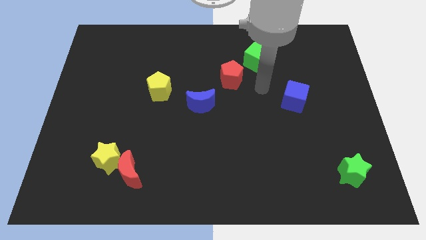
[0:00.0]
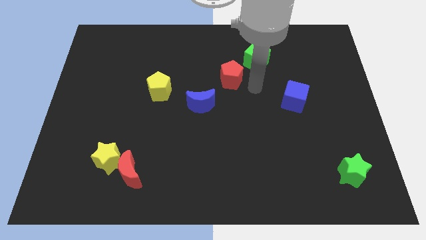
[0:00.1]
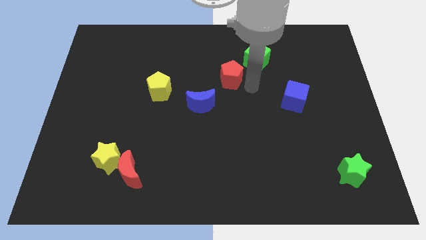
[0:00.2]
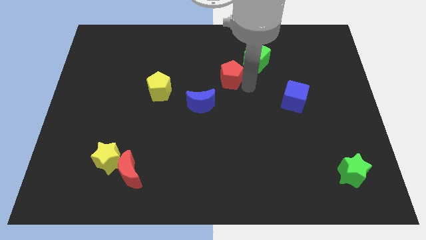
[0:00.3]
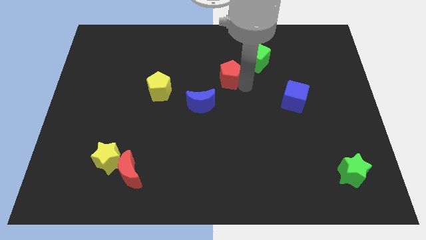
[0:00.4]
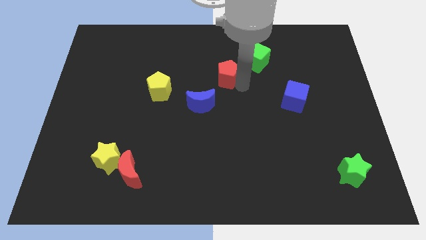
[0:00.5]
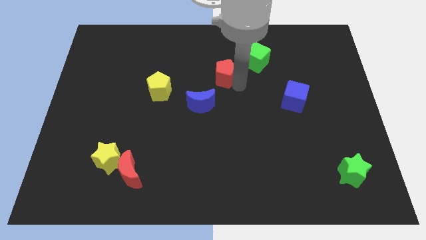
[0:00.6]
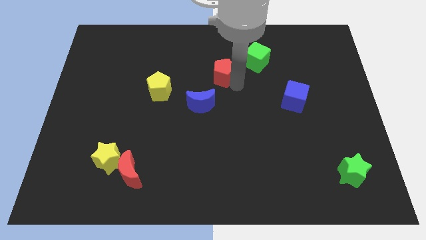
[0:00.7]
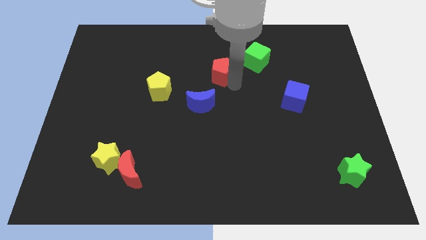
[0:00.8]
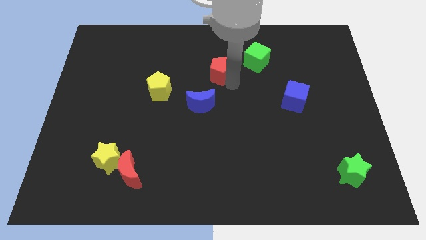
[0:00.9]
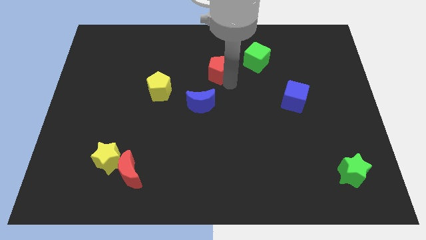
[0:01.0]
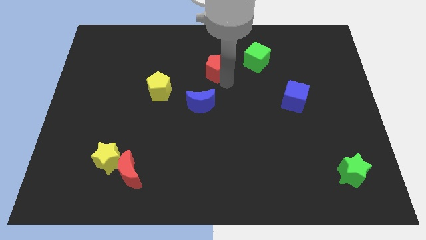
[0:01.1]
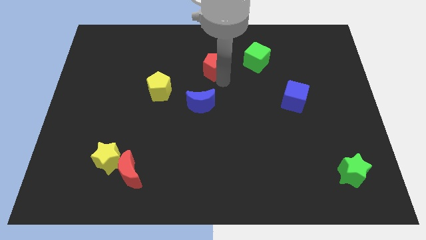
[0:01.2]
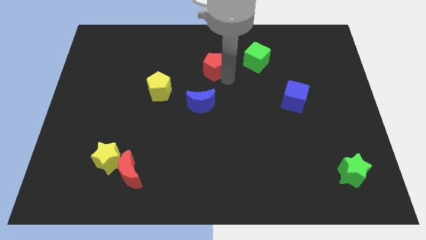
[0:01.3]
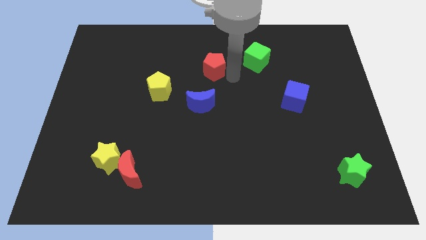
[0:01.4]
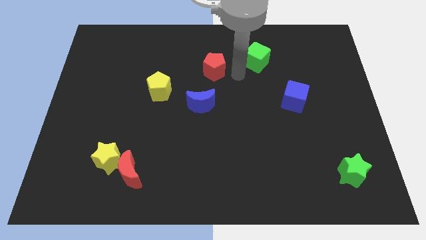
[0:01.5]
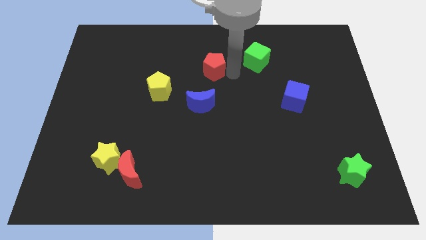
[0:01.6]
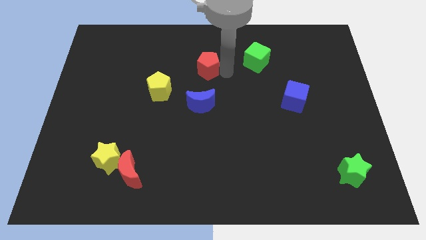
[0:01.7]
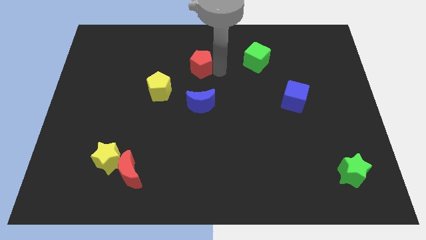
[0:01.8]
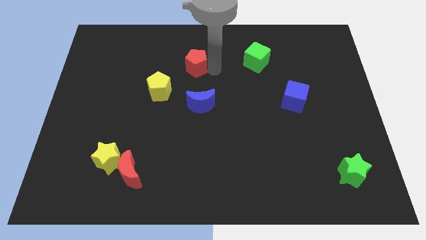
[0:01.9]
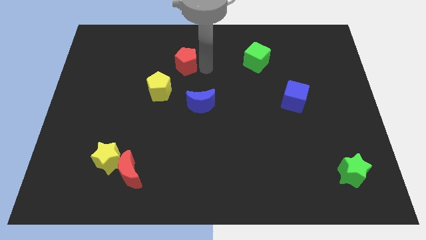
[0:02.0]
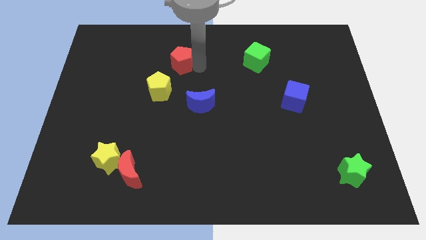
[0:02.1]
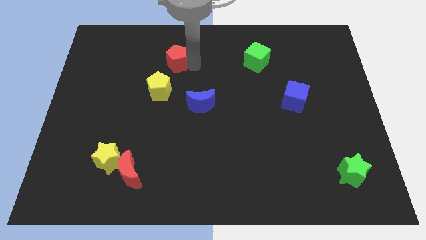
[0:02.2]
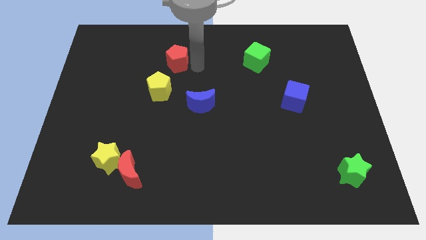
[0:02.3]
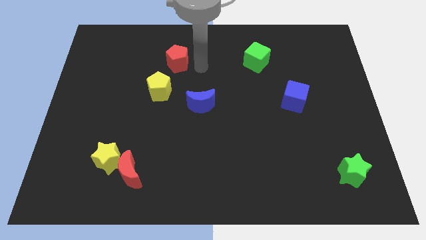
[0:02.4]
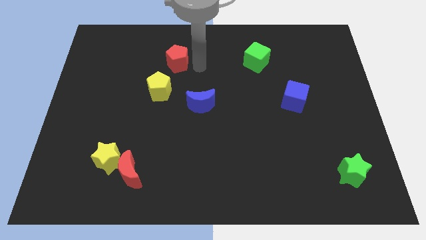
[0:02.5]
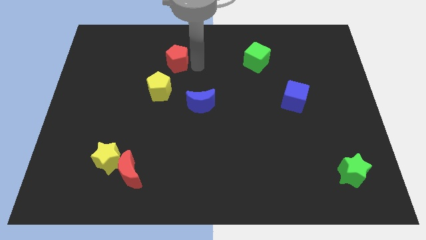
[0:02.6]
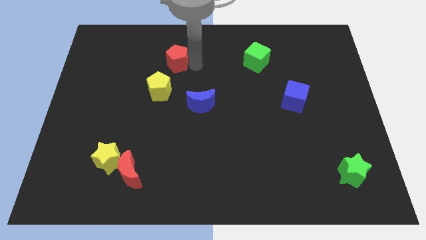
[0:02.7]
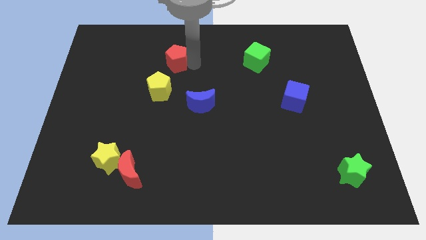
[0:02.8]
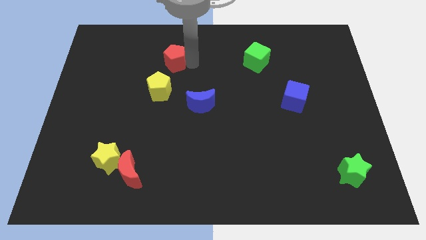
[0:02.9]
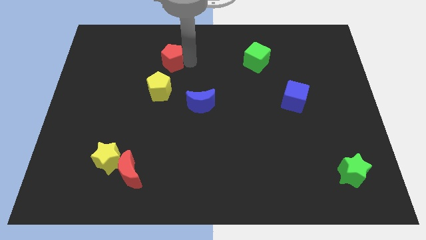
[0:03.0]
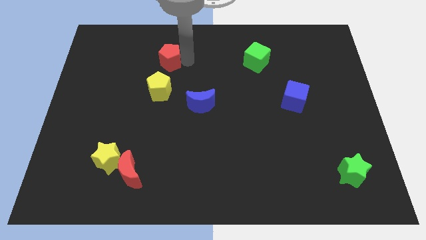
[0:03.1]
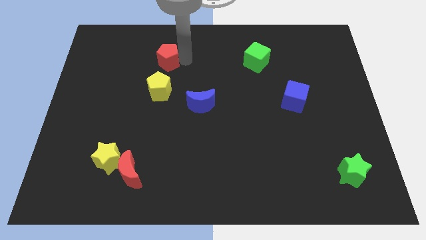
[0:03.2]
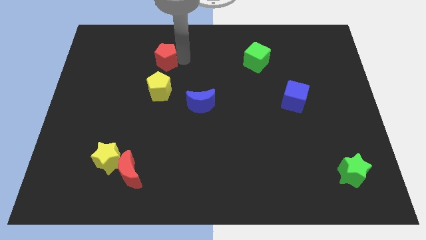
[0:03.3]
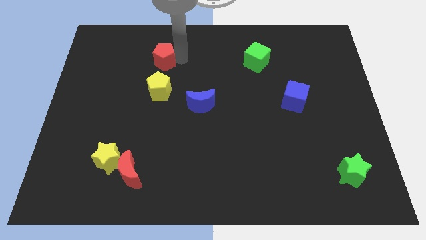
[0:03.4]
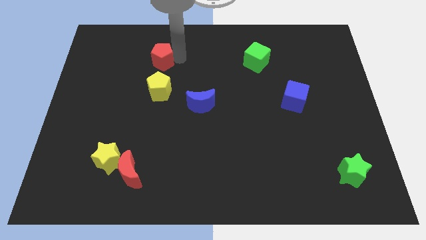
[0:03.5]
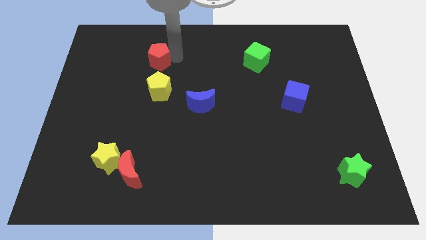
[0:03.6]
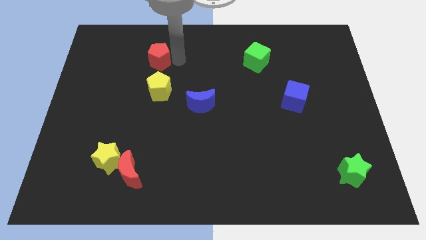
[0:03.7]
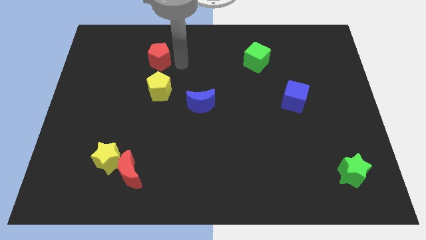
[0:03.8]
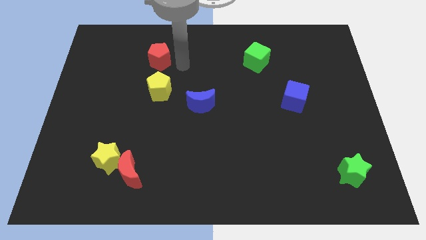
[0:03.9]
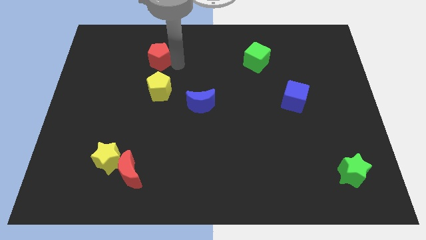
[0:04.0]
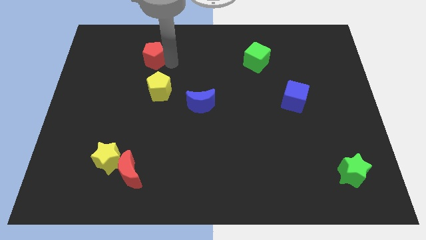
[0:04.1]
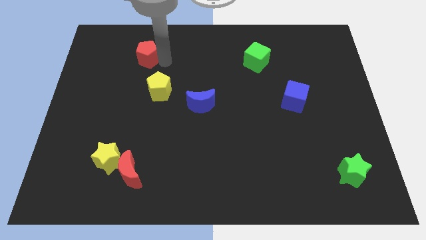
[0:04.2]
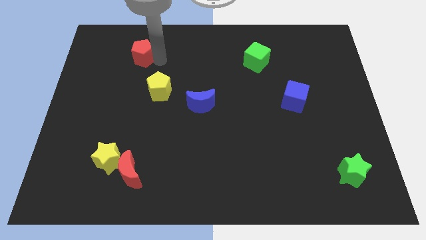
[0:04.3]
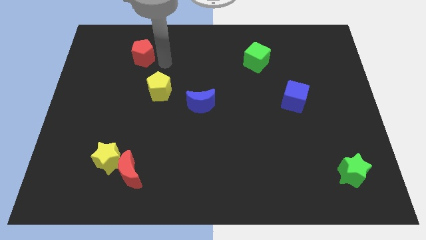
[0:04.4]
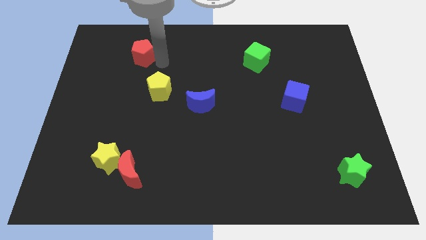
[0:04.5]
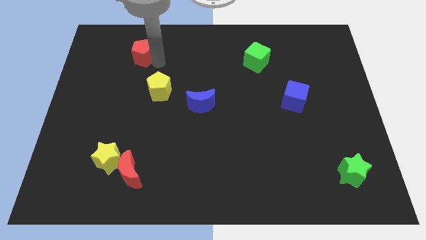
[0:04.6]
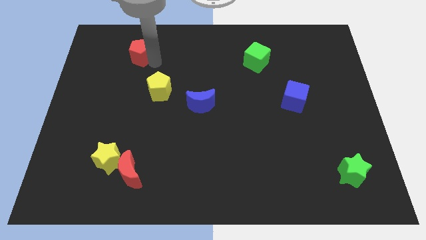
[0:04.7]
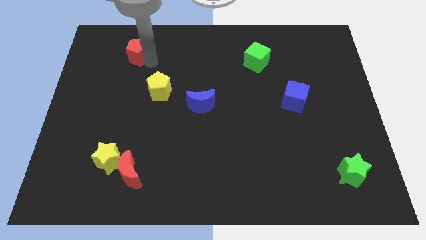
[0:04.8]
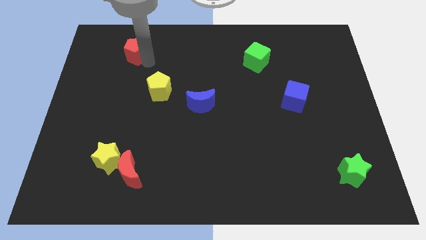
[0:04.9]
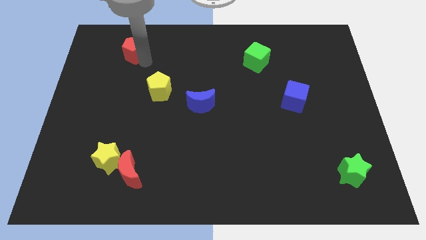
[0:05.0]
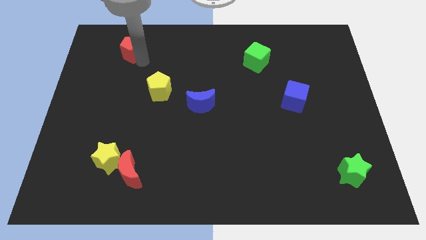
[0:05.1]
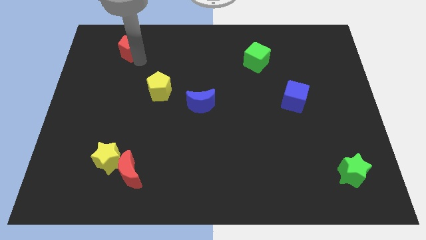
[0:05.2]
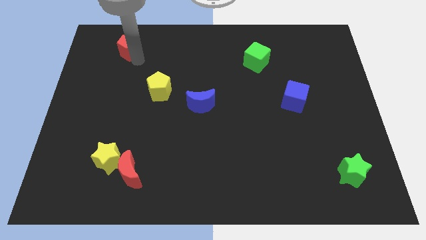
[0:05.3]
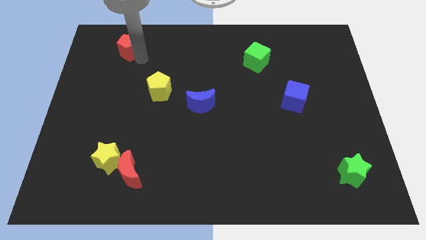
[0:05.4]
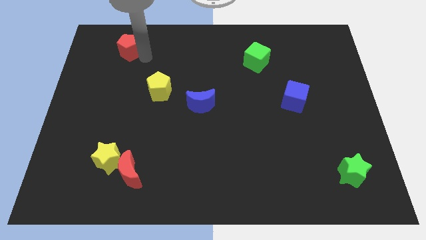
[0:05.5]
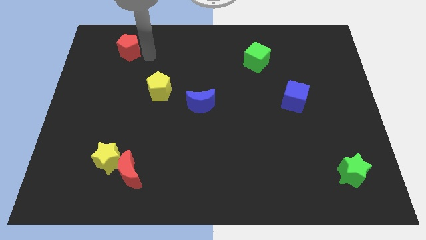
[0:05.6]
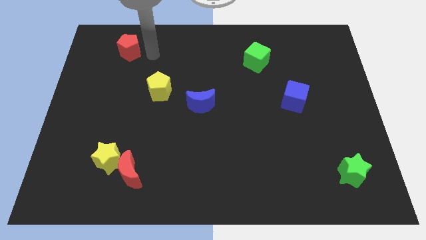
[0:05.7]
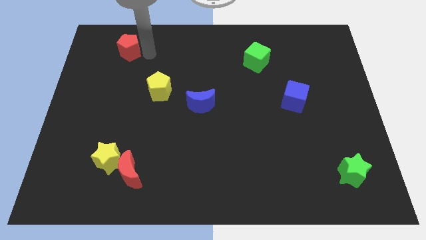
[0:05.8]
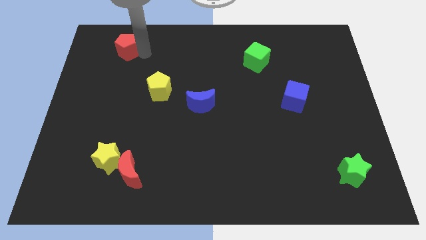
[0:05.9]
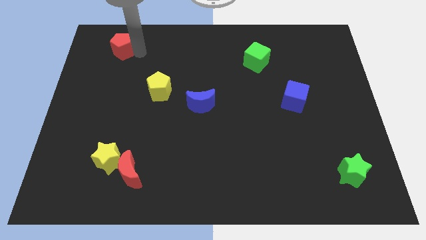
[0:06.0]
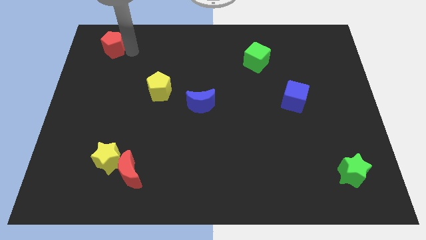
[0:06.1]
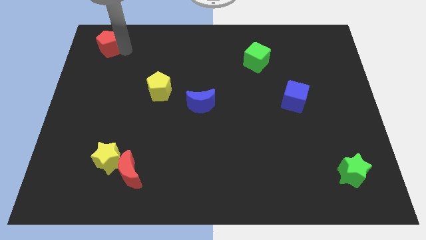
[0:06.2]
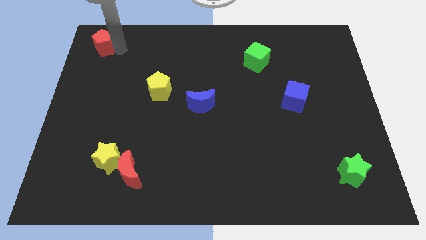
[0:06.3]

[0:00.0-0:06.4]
push the red pentagon to the top left of the board
